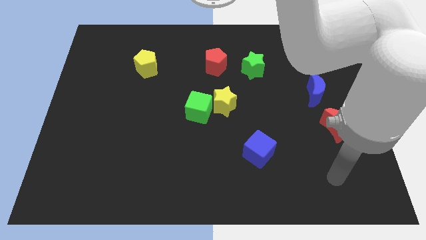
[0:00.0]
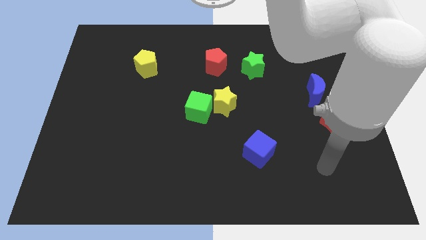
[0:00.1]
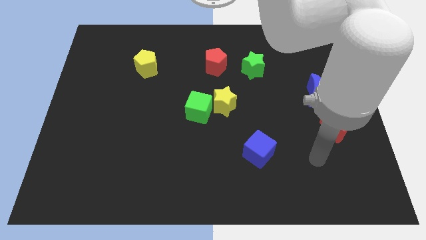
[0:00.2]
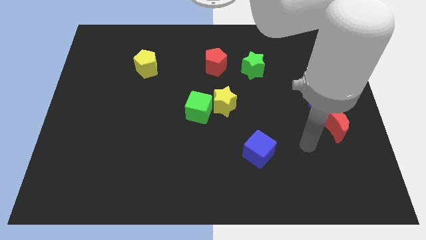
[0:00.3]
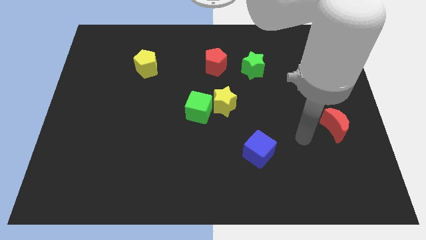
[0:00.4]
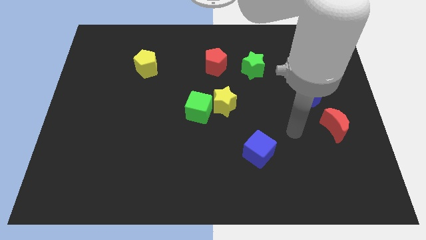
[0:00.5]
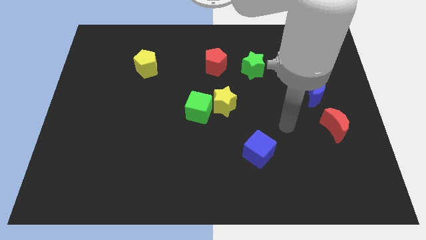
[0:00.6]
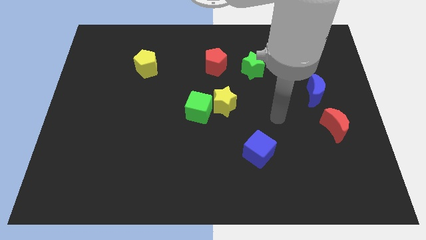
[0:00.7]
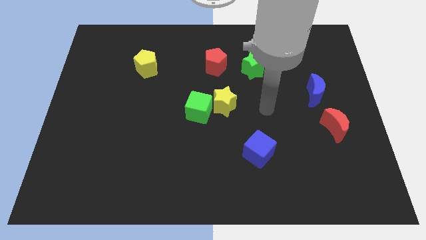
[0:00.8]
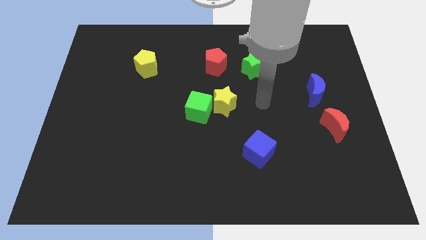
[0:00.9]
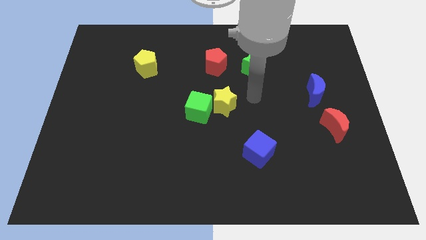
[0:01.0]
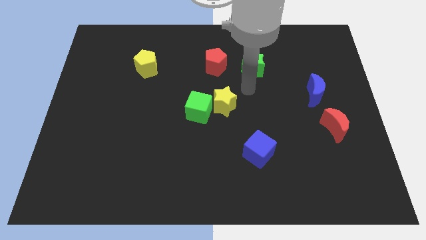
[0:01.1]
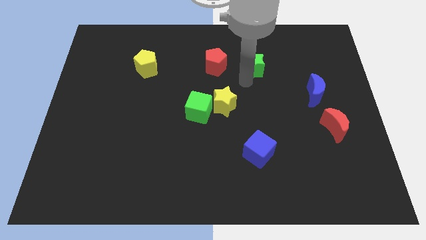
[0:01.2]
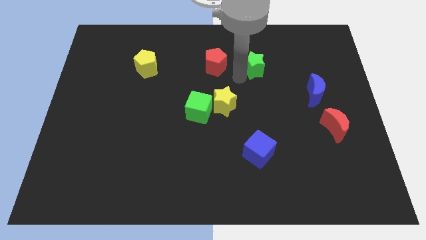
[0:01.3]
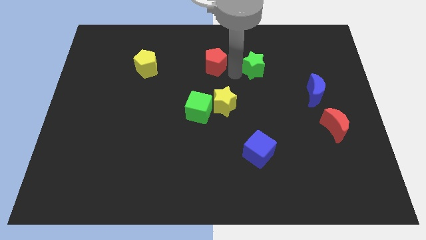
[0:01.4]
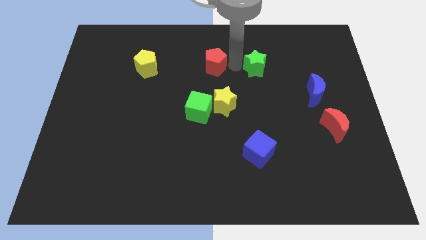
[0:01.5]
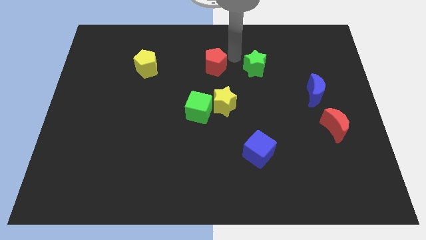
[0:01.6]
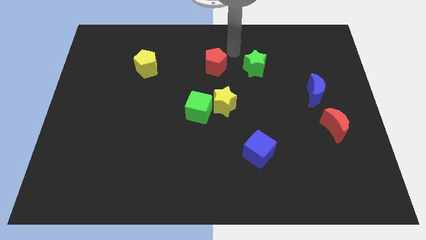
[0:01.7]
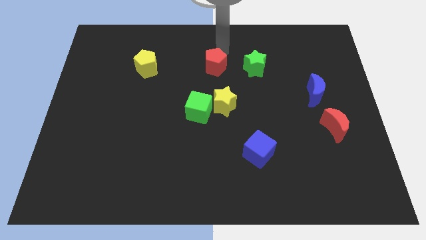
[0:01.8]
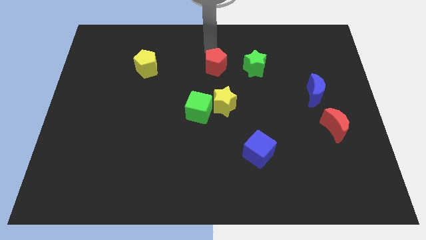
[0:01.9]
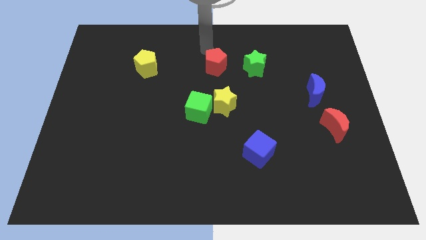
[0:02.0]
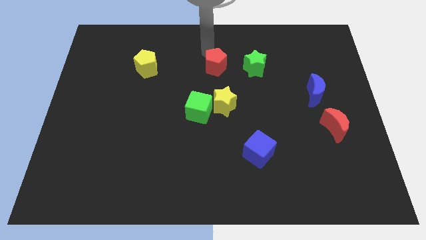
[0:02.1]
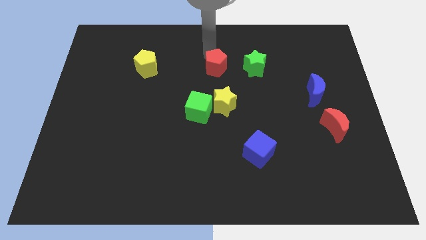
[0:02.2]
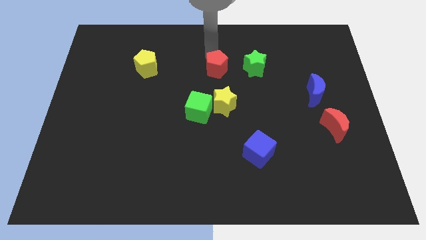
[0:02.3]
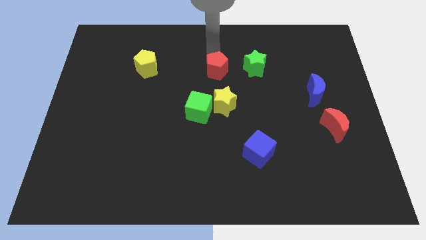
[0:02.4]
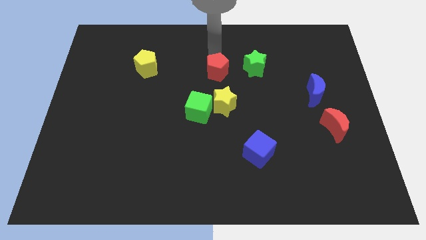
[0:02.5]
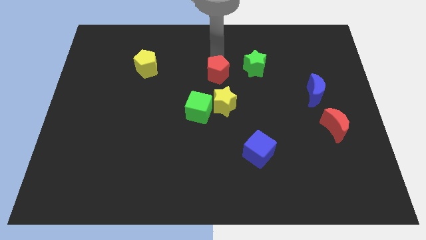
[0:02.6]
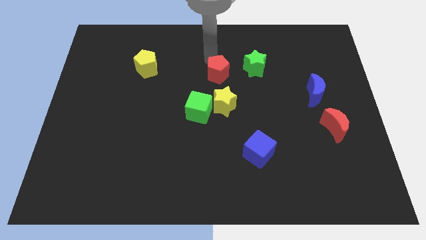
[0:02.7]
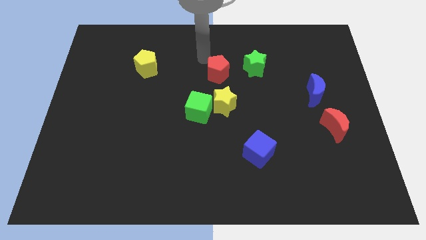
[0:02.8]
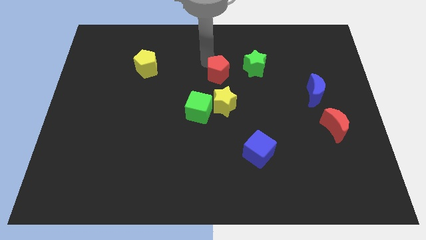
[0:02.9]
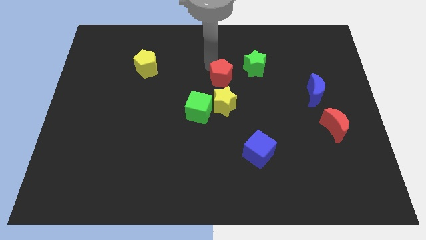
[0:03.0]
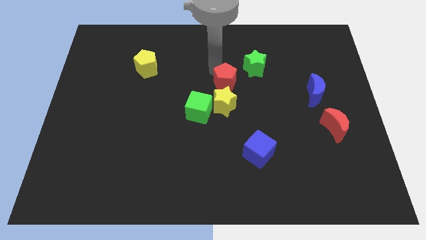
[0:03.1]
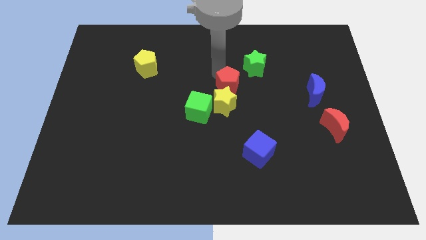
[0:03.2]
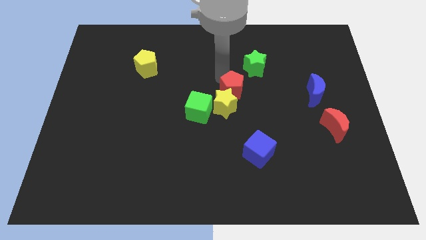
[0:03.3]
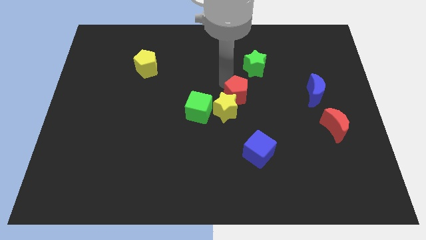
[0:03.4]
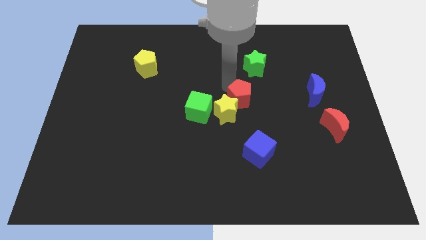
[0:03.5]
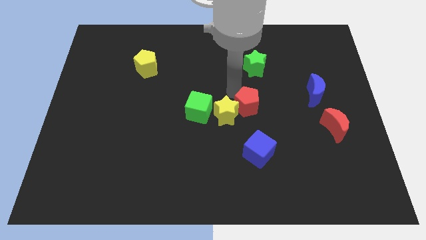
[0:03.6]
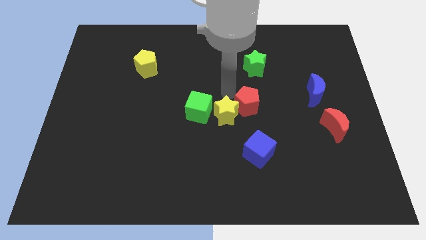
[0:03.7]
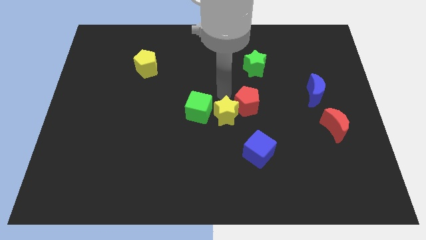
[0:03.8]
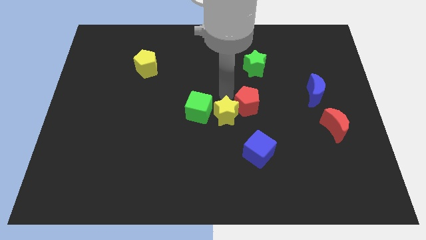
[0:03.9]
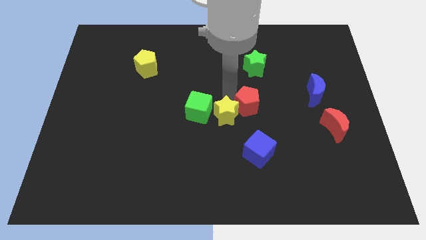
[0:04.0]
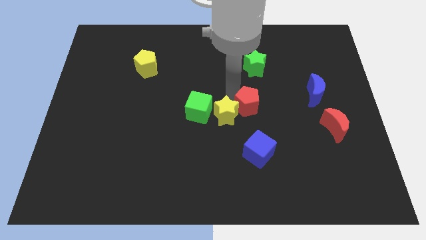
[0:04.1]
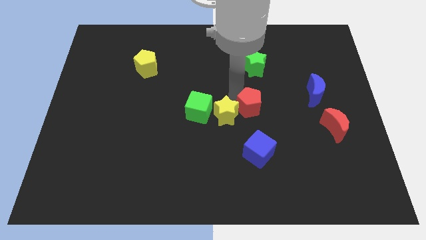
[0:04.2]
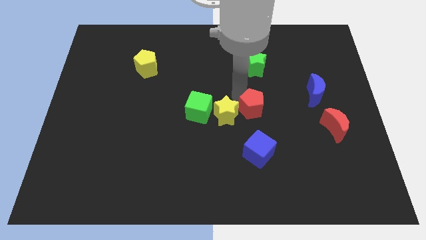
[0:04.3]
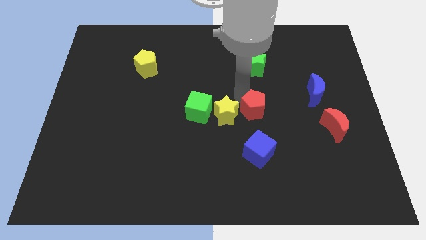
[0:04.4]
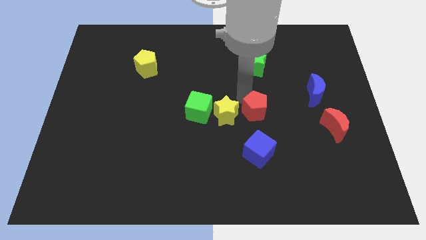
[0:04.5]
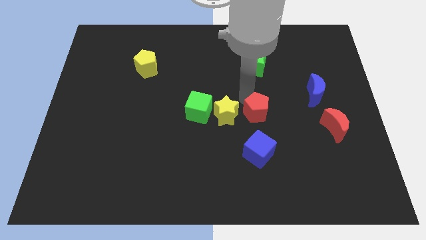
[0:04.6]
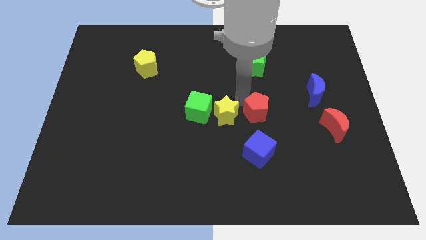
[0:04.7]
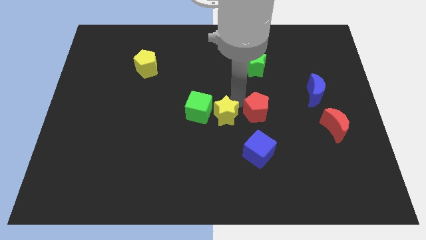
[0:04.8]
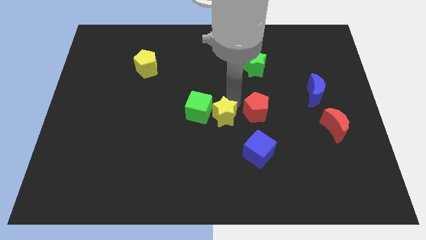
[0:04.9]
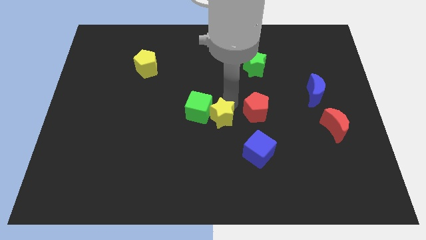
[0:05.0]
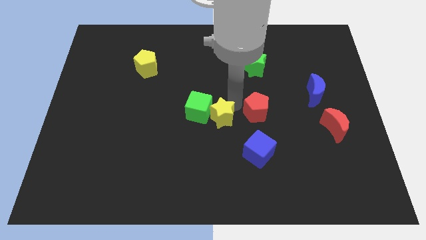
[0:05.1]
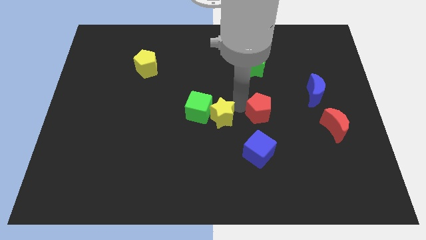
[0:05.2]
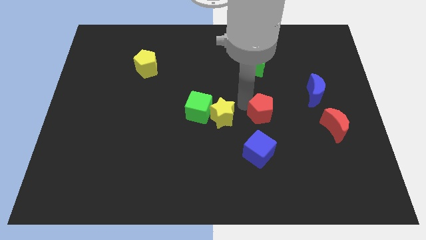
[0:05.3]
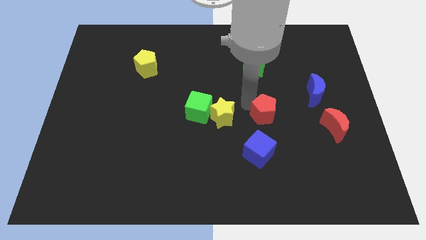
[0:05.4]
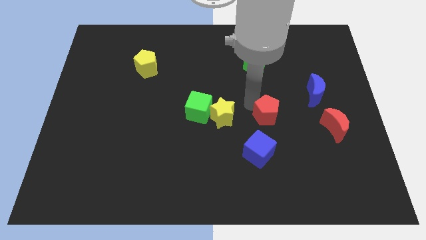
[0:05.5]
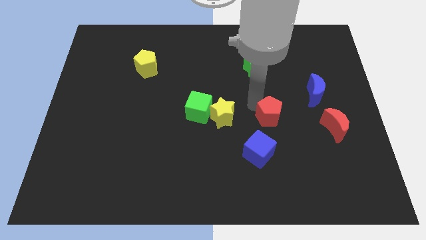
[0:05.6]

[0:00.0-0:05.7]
push the red pentagon down and then to the right

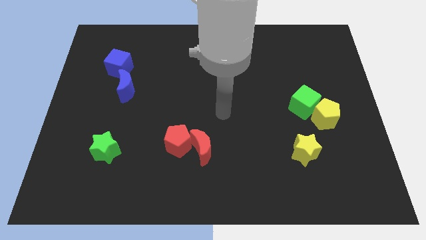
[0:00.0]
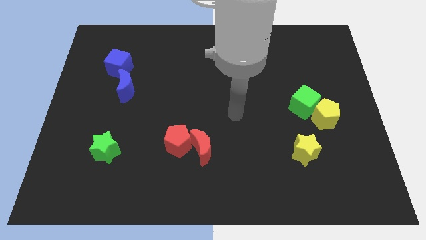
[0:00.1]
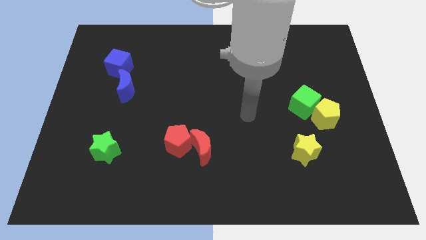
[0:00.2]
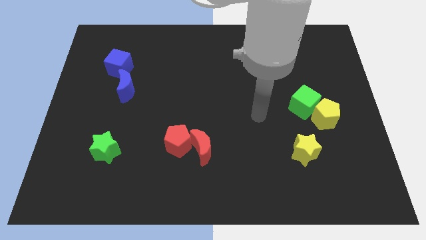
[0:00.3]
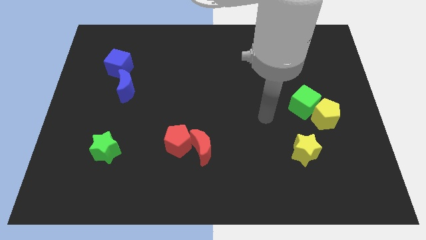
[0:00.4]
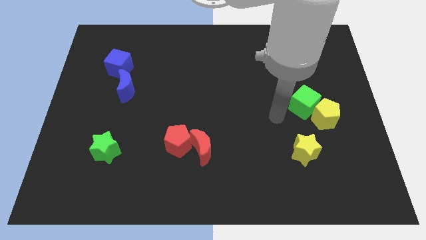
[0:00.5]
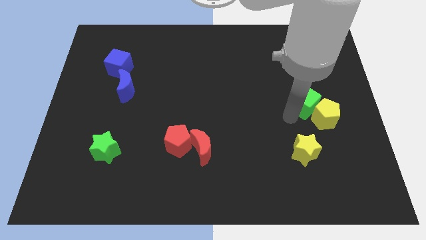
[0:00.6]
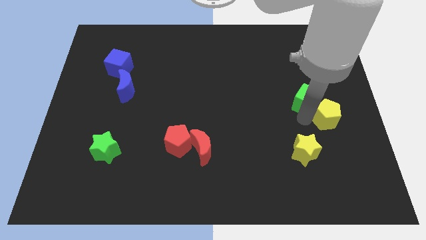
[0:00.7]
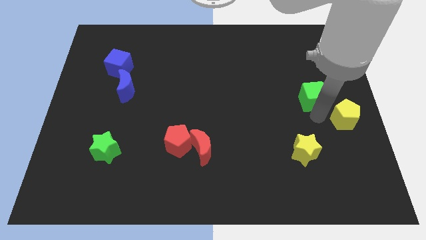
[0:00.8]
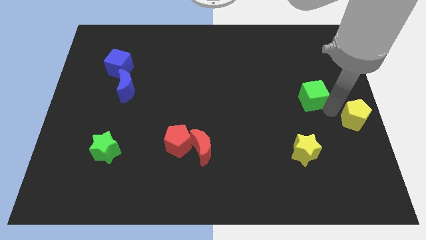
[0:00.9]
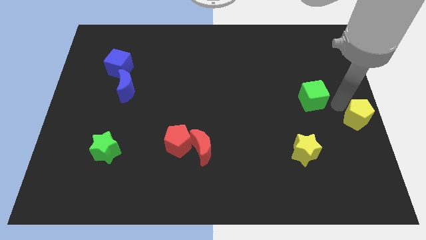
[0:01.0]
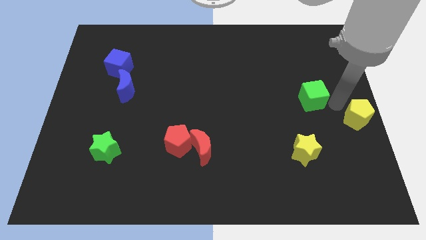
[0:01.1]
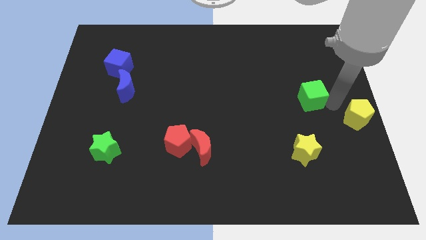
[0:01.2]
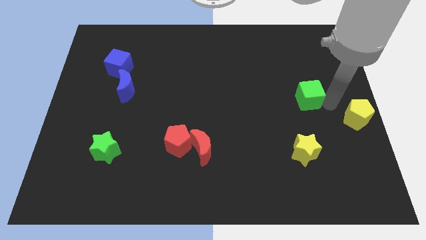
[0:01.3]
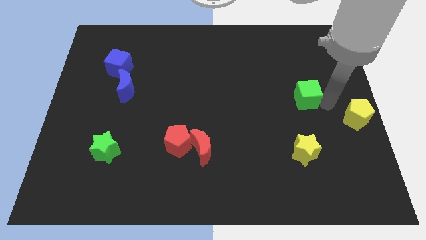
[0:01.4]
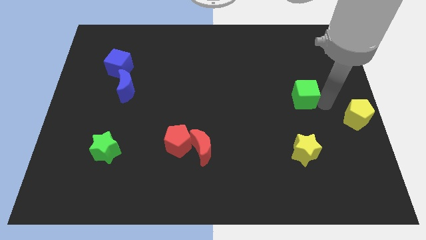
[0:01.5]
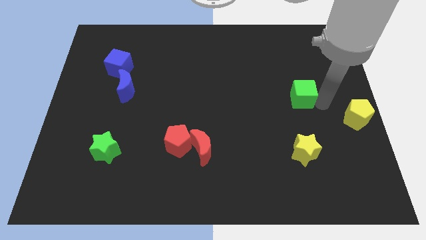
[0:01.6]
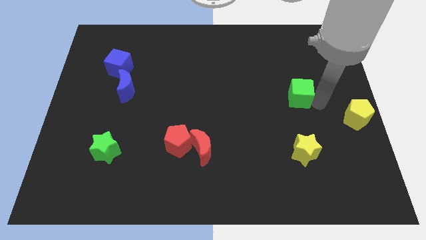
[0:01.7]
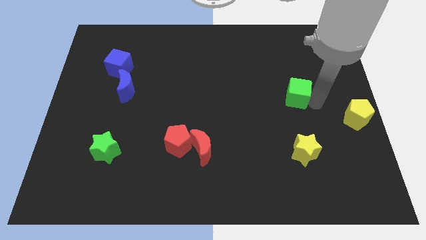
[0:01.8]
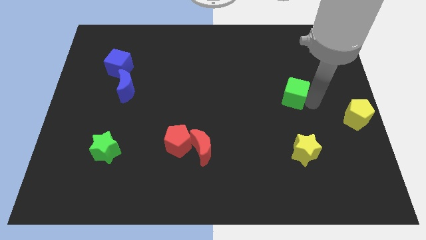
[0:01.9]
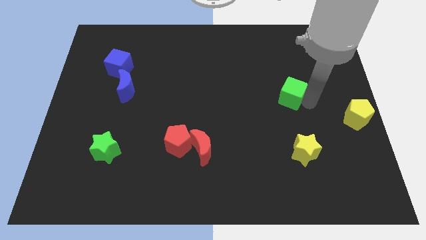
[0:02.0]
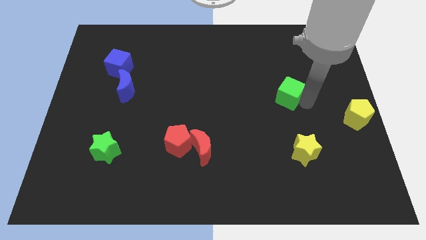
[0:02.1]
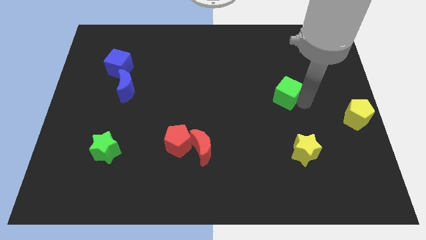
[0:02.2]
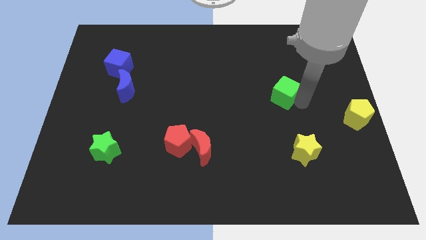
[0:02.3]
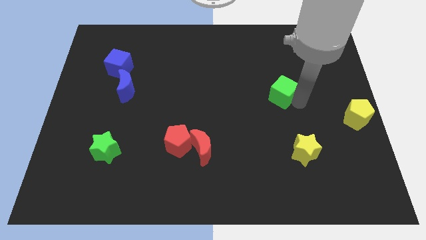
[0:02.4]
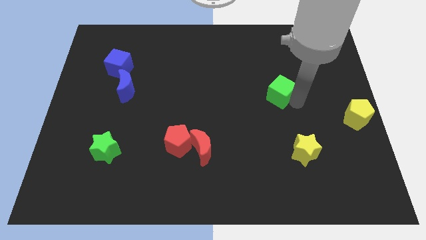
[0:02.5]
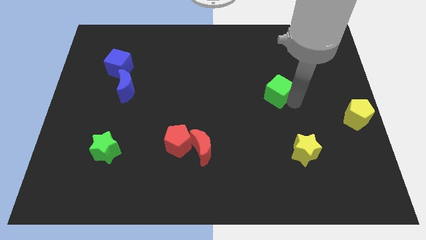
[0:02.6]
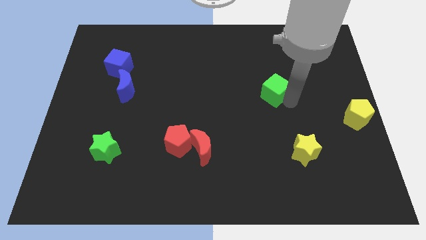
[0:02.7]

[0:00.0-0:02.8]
slide the green cube up and left a bit
